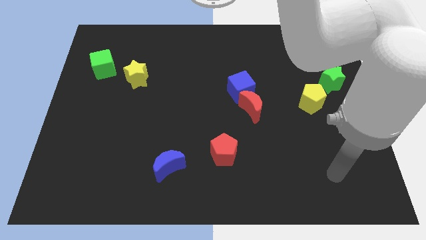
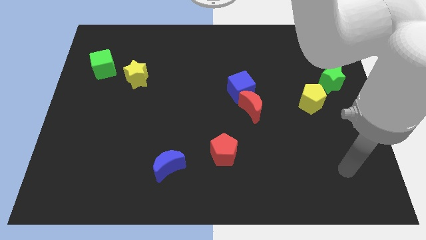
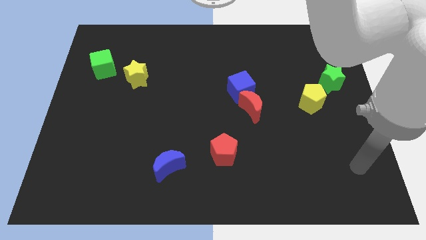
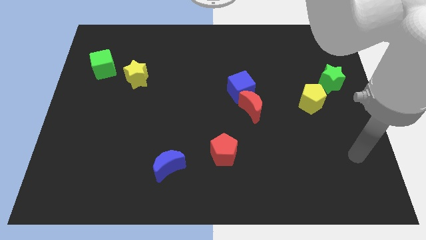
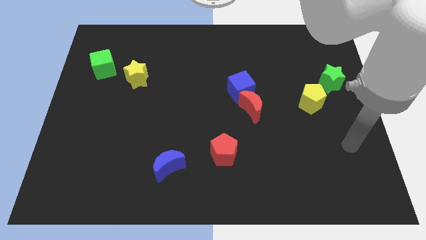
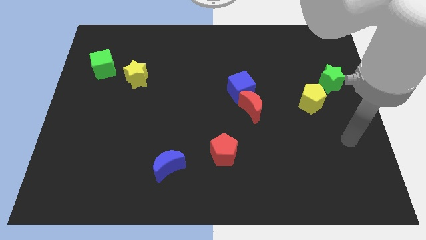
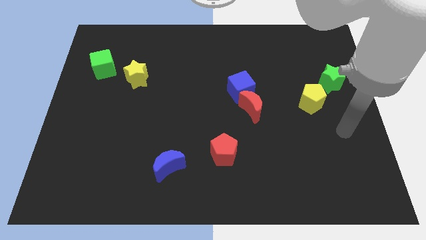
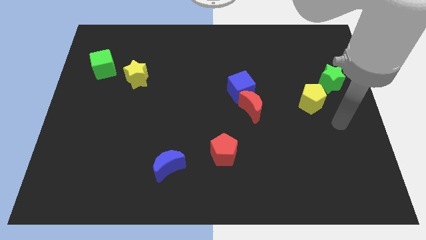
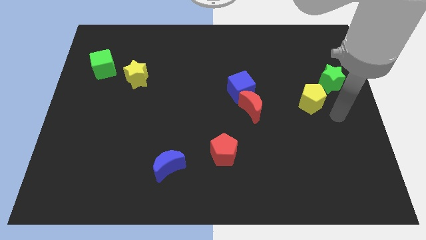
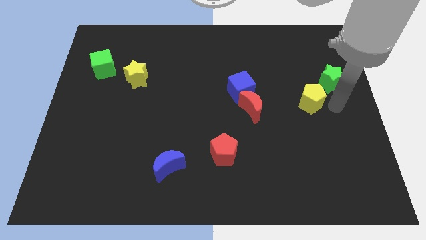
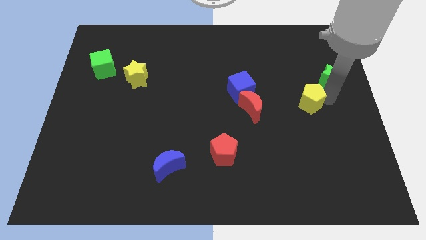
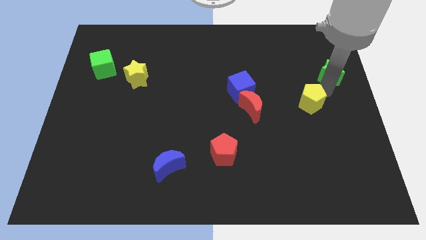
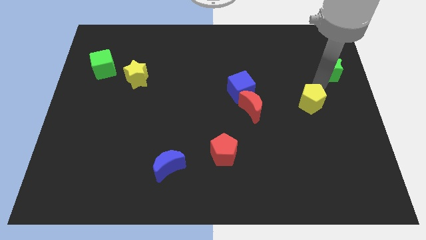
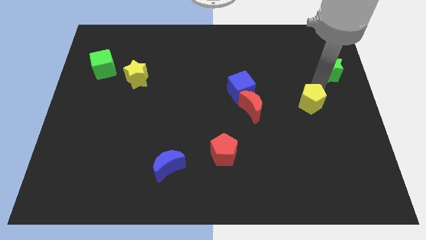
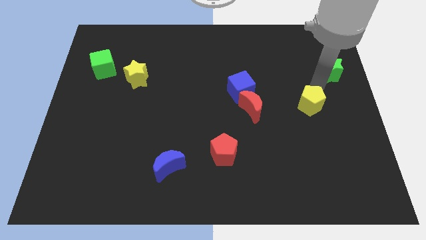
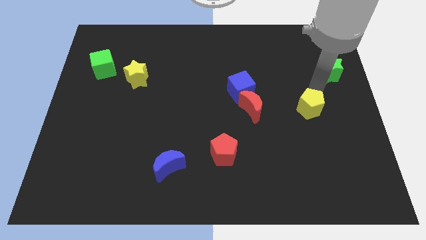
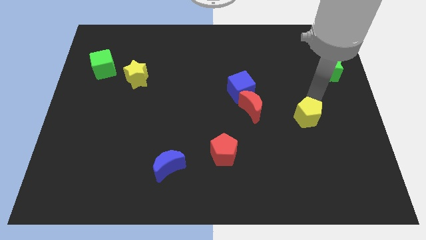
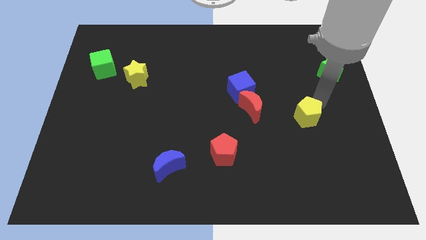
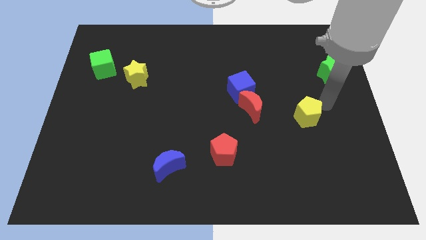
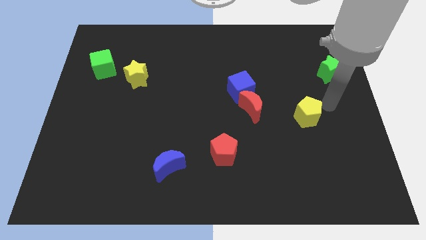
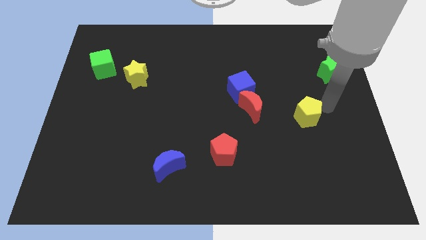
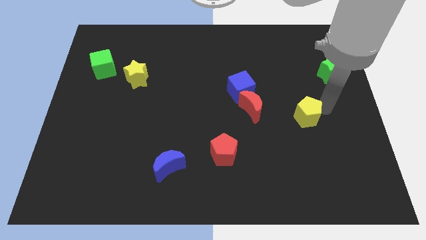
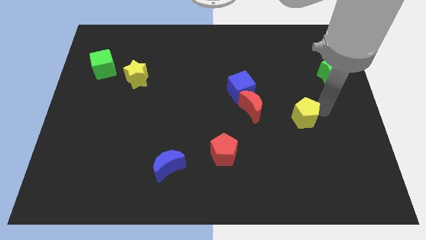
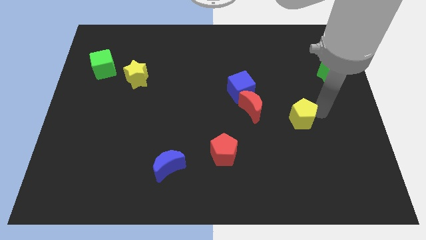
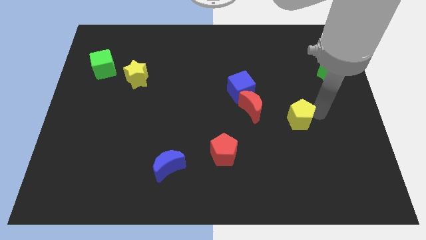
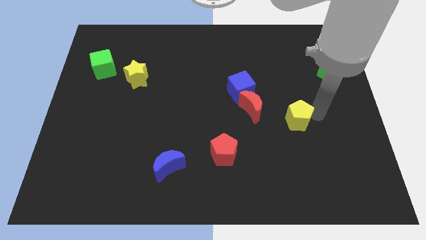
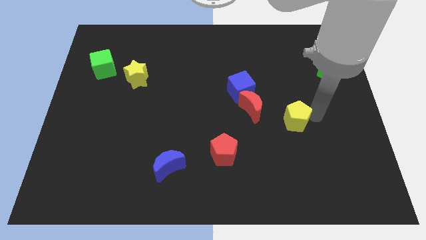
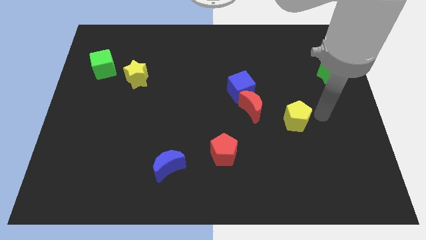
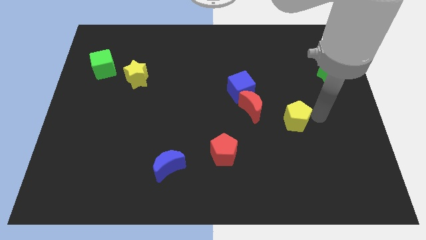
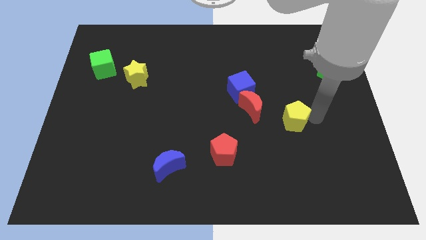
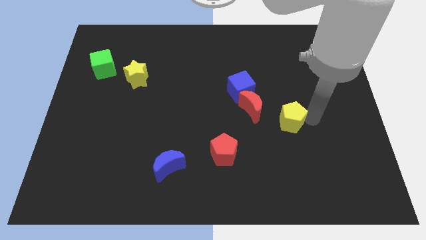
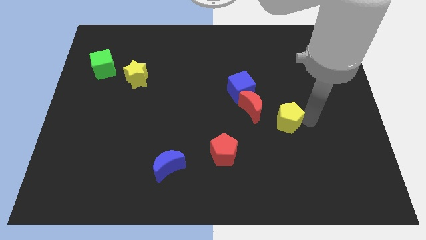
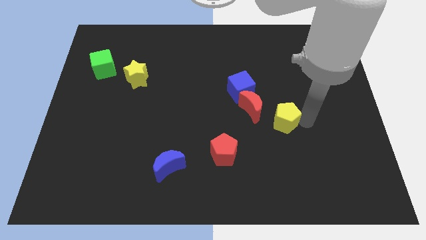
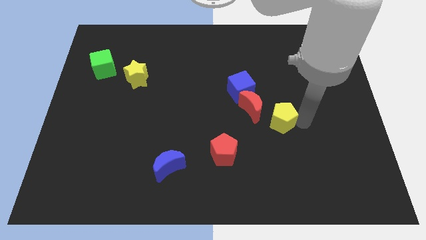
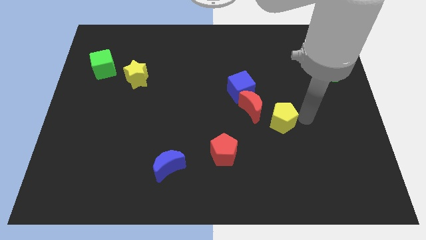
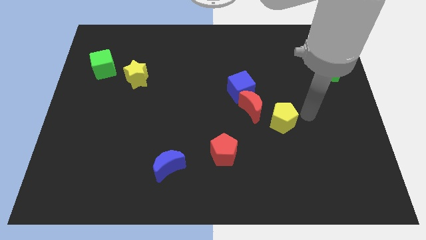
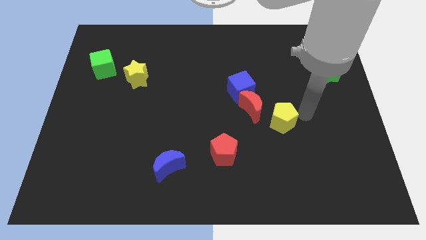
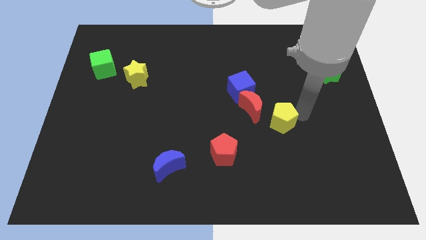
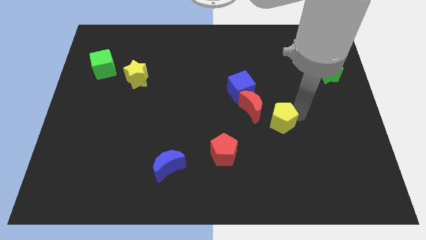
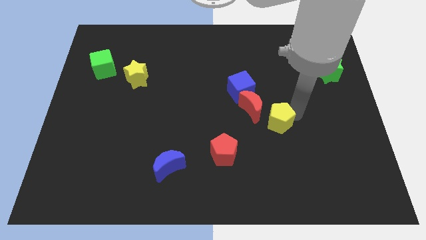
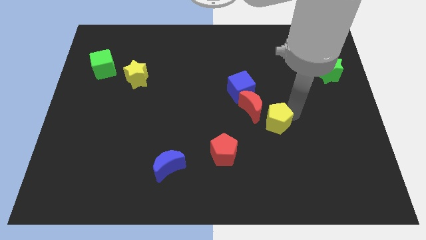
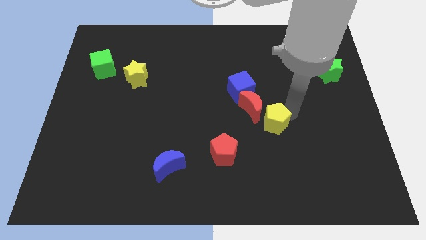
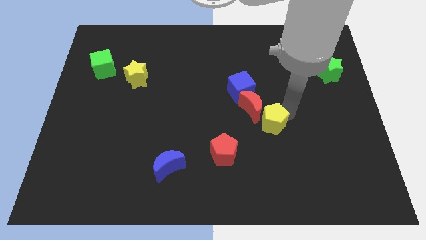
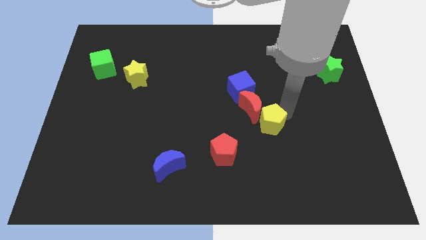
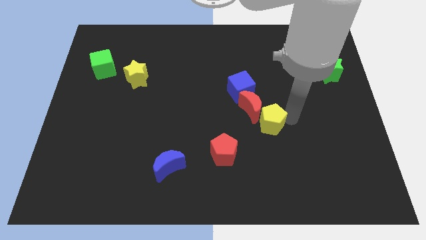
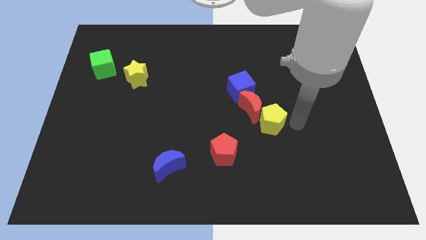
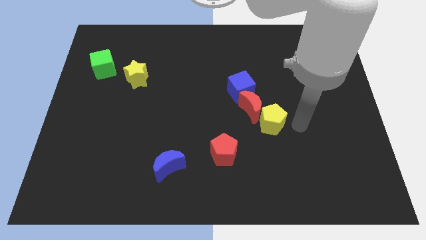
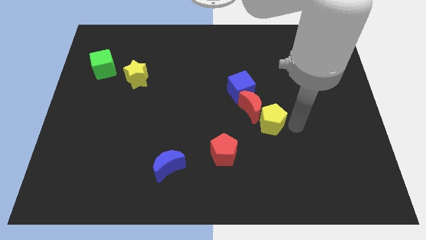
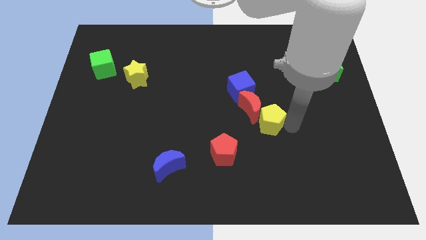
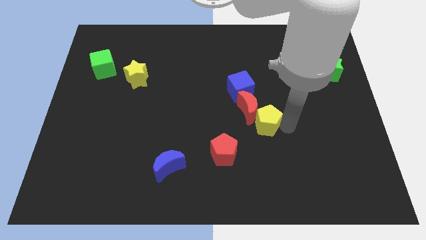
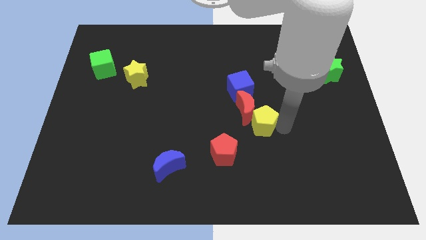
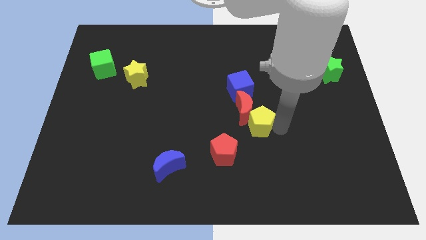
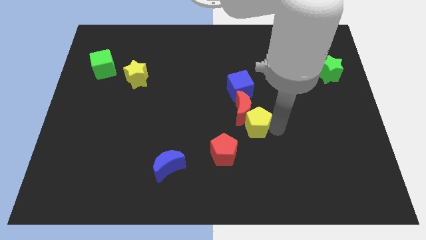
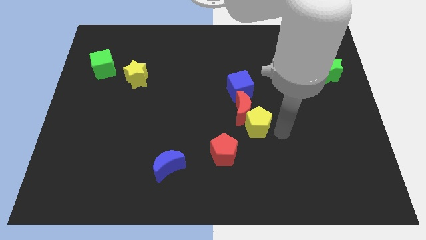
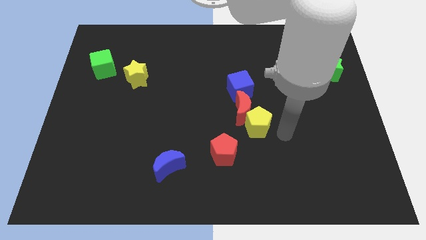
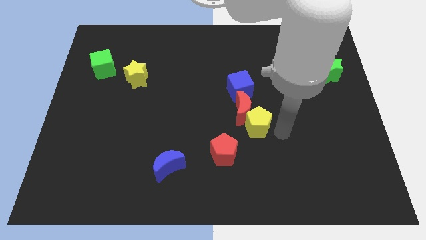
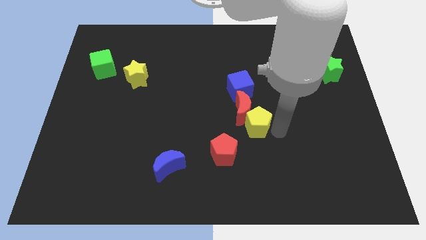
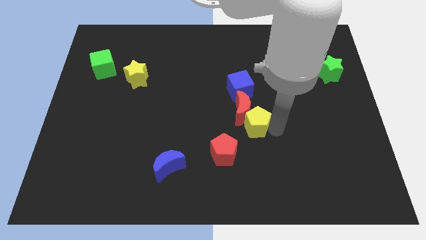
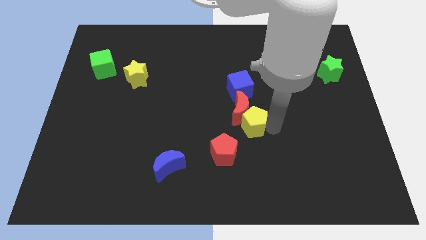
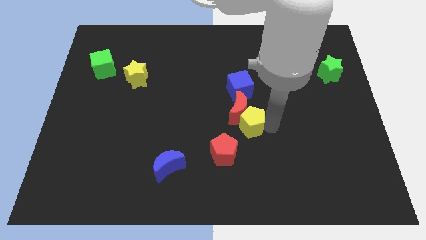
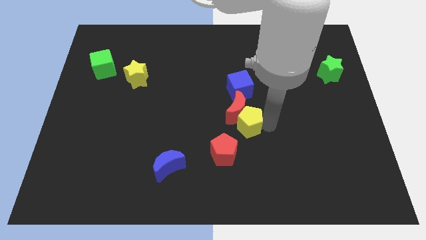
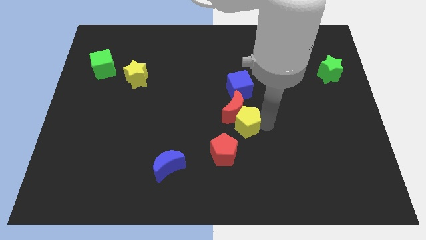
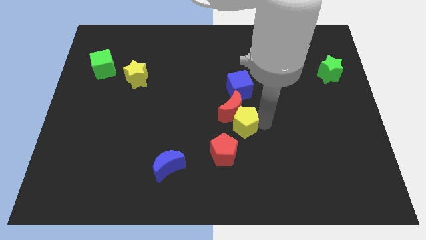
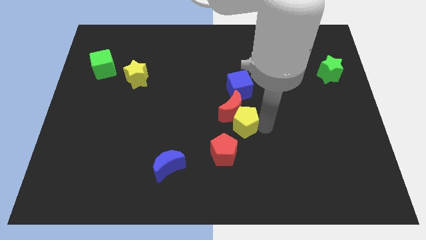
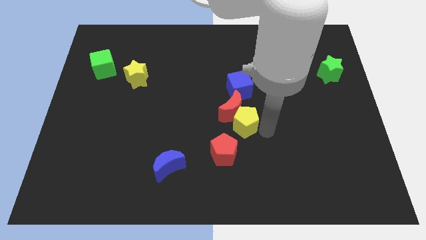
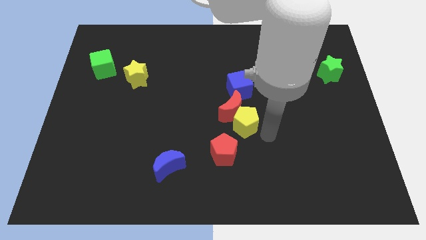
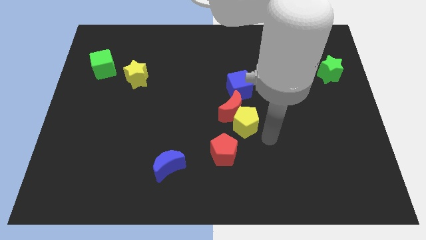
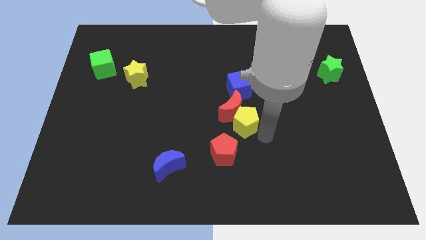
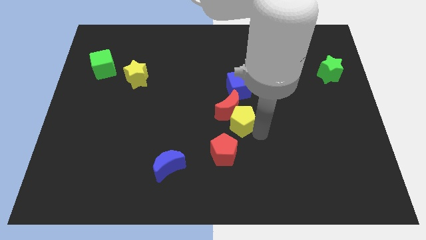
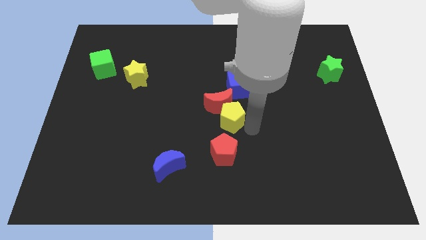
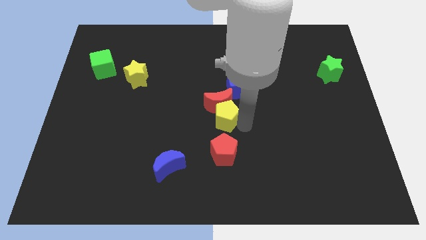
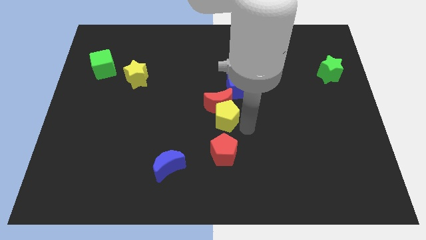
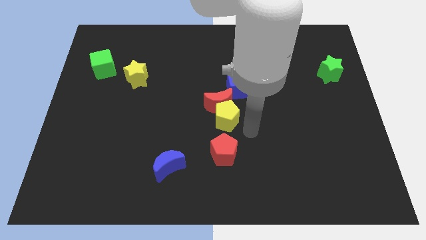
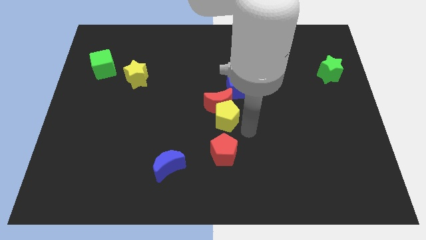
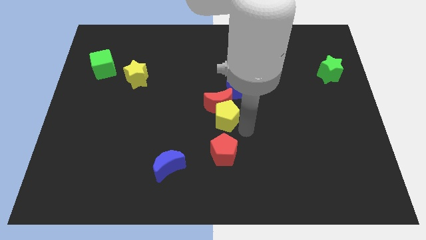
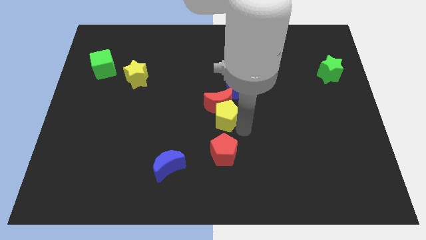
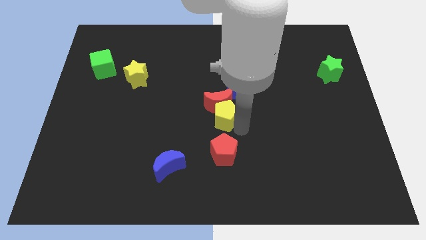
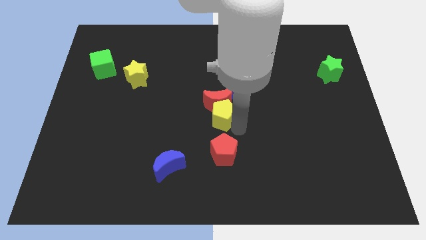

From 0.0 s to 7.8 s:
slide the yellow pentagon left

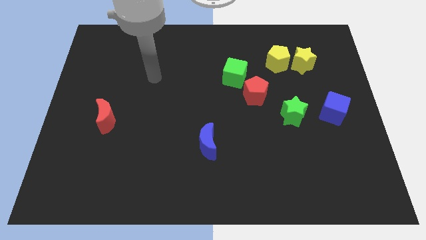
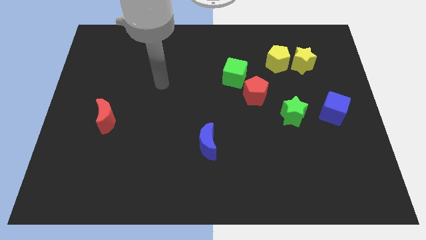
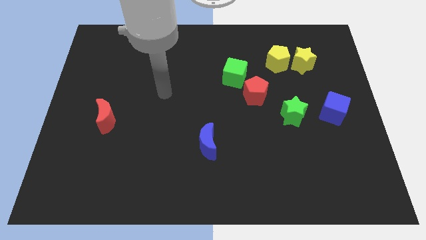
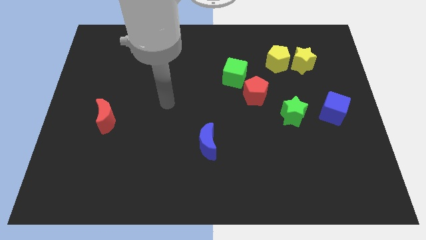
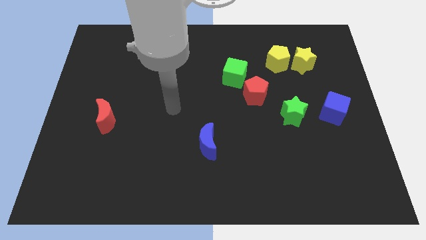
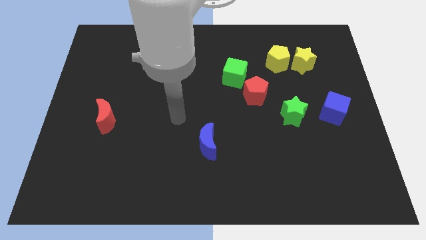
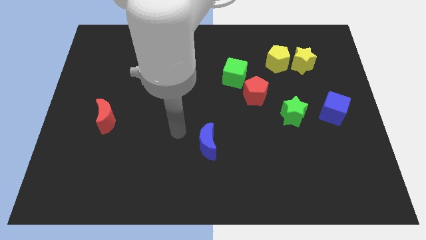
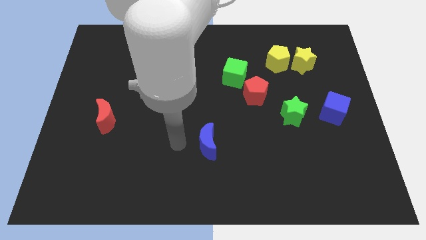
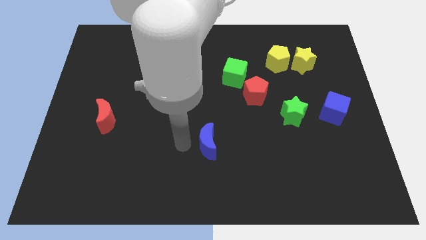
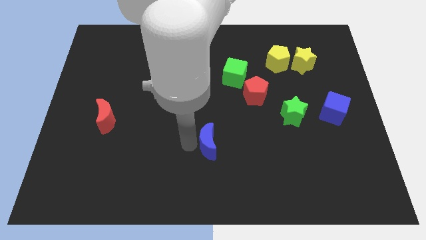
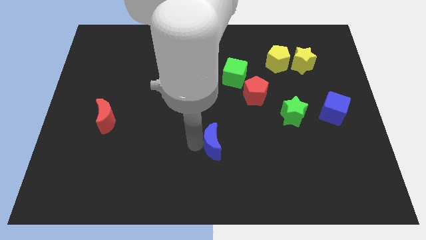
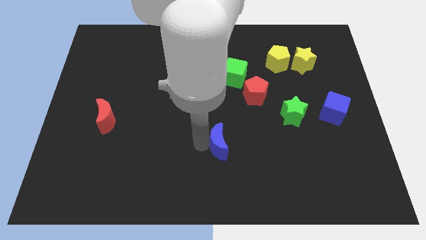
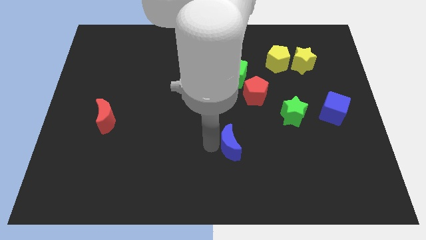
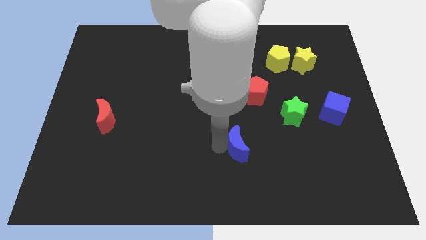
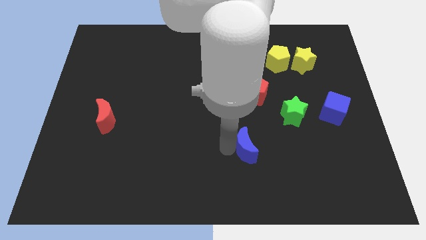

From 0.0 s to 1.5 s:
push the blue moon to the right a bit
